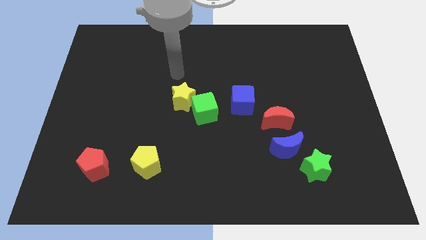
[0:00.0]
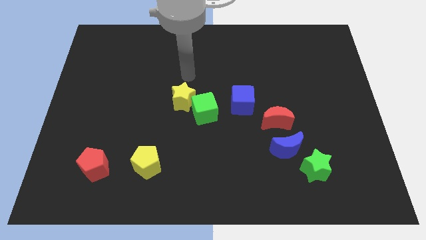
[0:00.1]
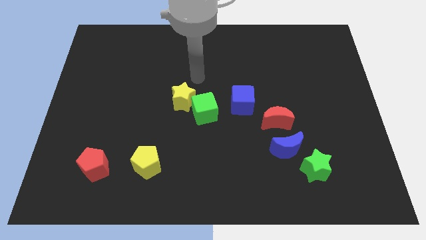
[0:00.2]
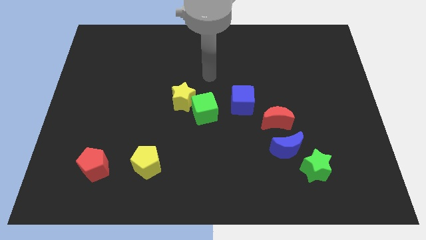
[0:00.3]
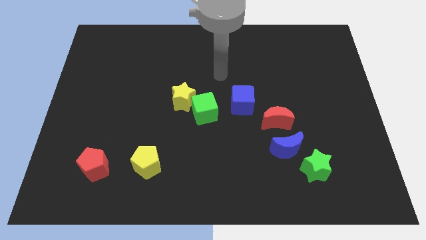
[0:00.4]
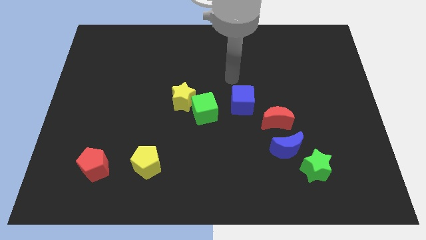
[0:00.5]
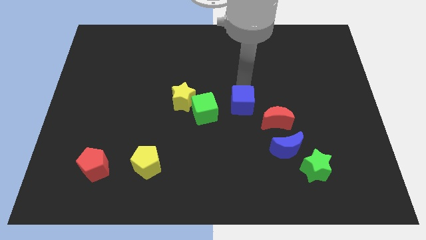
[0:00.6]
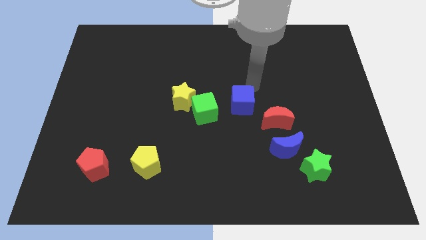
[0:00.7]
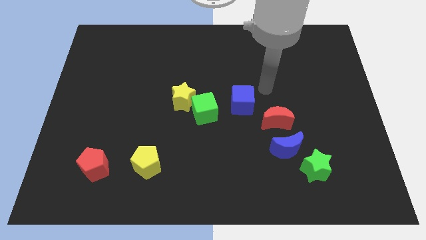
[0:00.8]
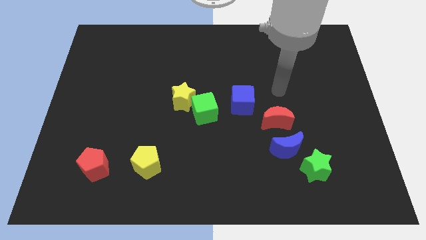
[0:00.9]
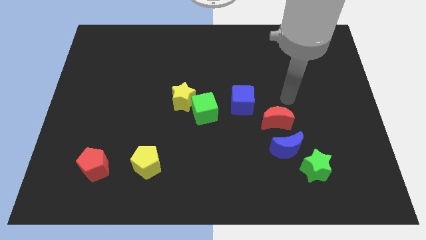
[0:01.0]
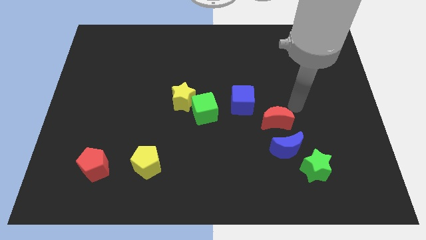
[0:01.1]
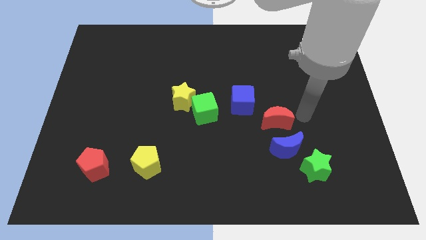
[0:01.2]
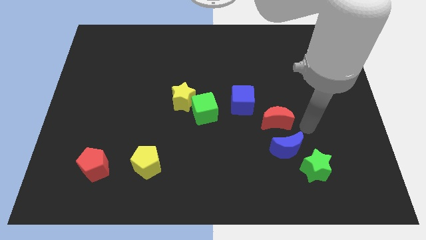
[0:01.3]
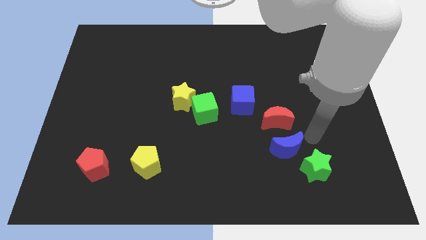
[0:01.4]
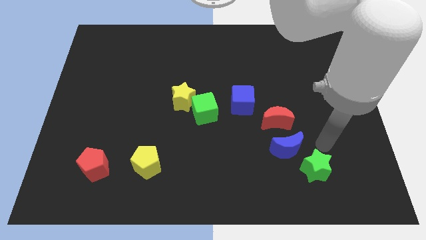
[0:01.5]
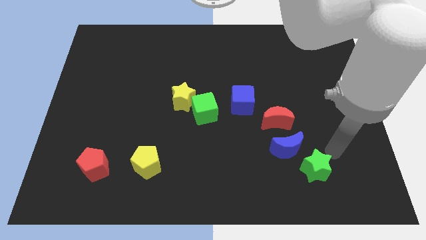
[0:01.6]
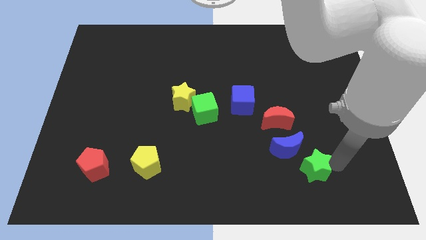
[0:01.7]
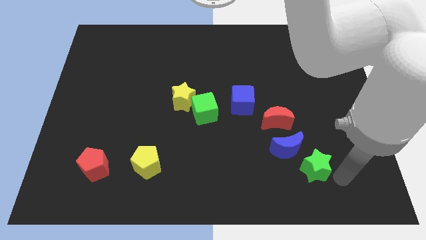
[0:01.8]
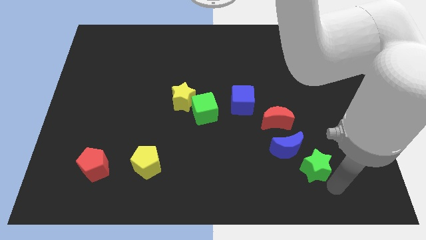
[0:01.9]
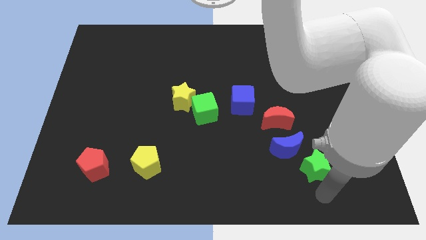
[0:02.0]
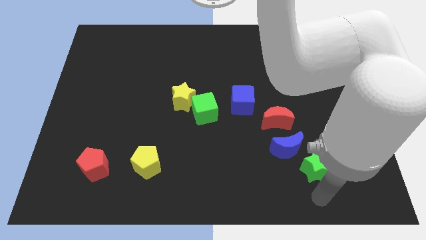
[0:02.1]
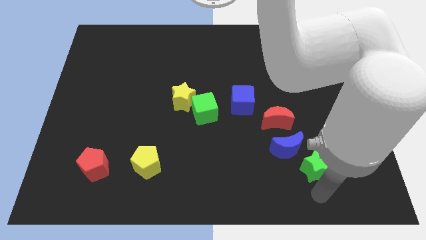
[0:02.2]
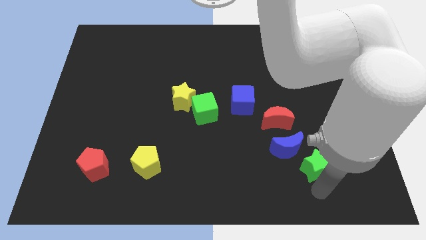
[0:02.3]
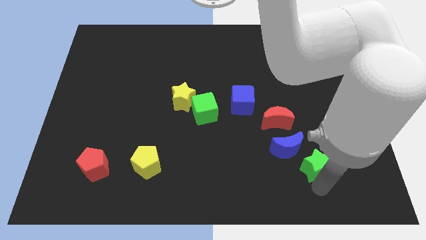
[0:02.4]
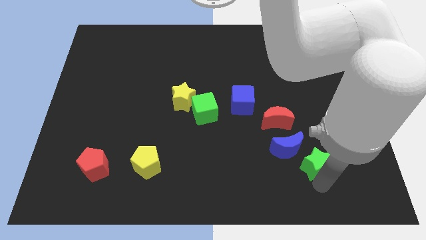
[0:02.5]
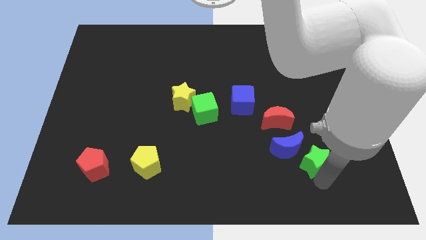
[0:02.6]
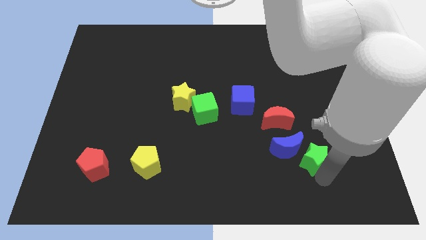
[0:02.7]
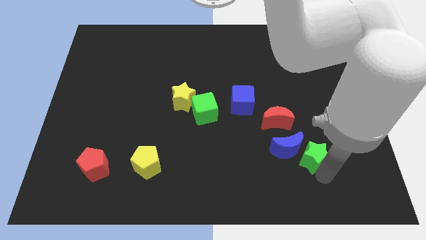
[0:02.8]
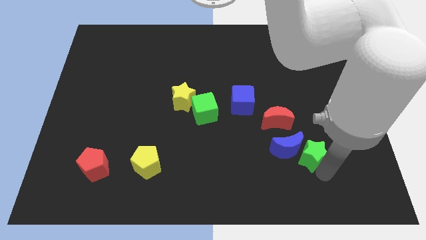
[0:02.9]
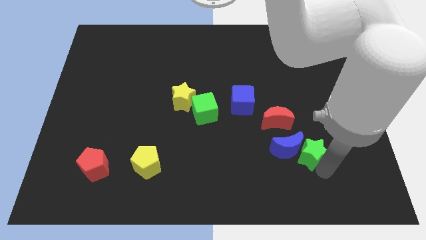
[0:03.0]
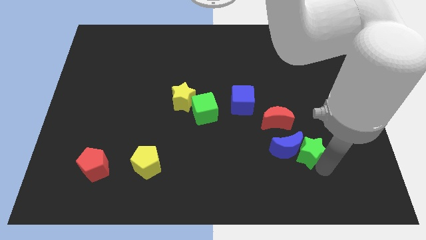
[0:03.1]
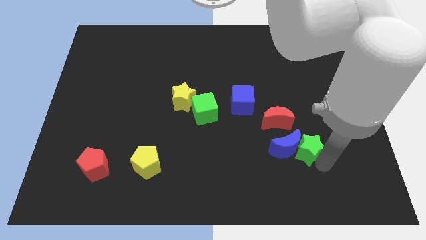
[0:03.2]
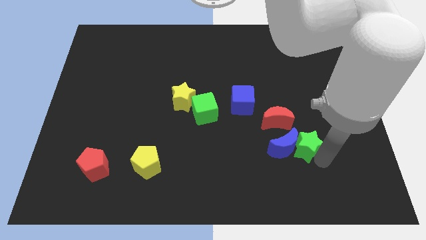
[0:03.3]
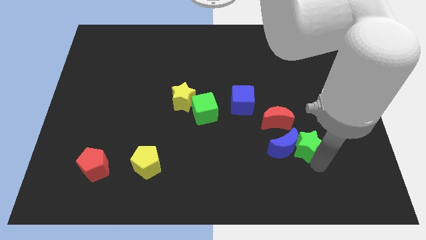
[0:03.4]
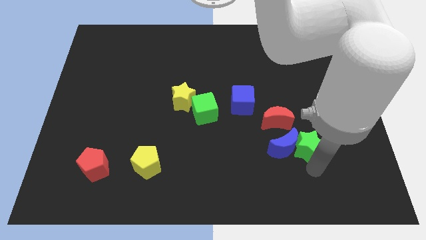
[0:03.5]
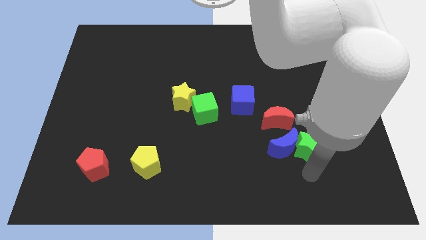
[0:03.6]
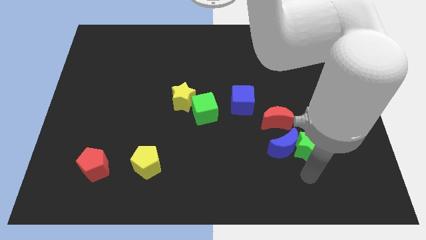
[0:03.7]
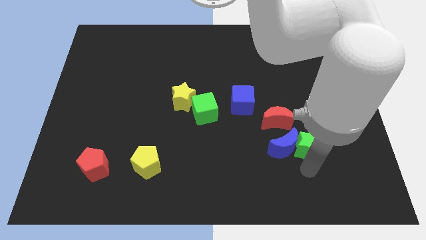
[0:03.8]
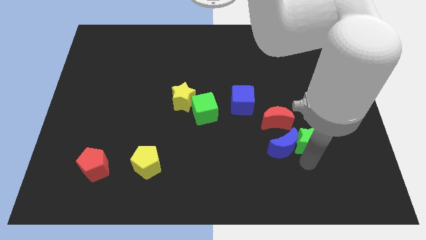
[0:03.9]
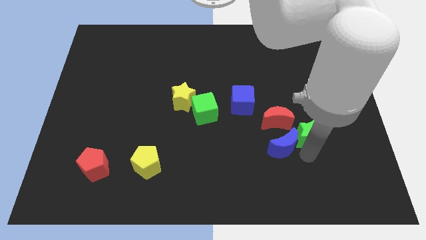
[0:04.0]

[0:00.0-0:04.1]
slide the green star slightly upwards

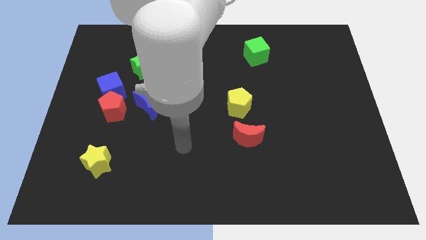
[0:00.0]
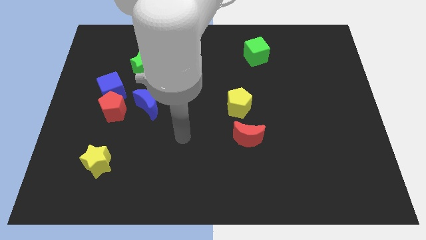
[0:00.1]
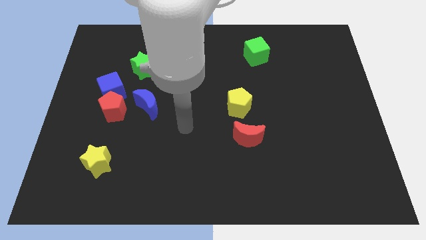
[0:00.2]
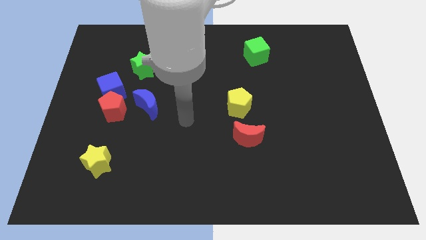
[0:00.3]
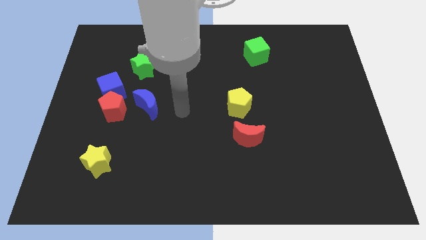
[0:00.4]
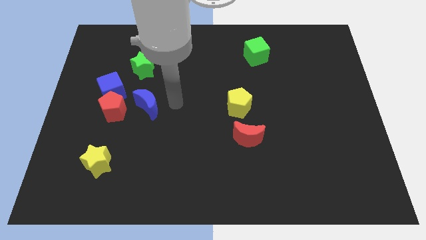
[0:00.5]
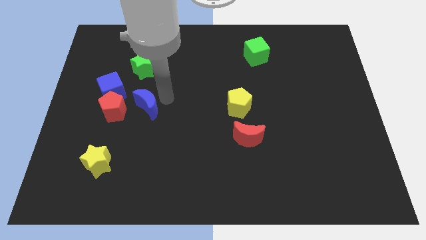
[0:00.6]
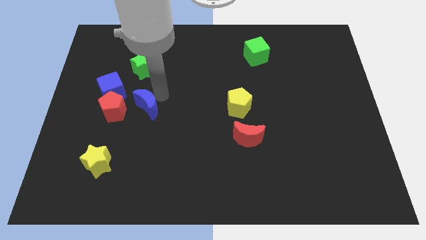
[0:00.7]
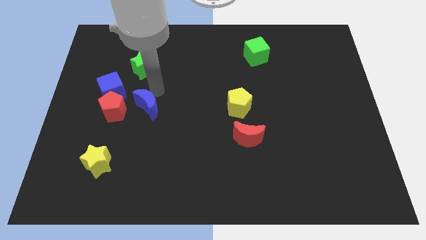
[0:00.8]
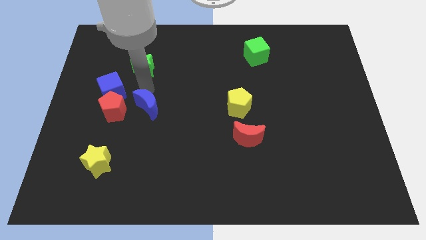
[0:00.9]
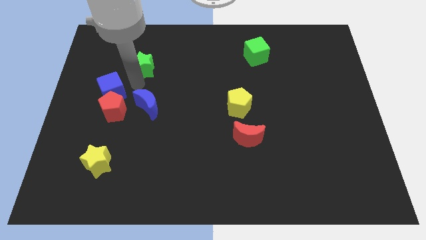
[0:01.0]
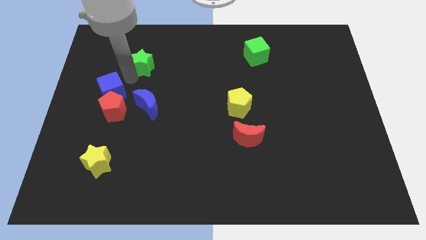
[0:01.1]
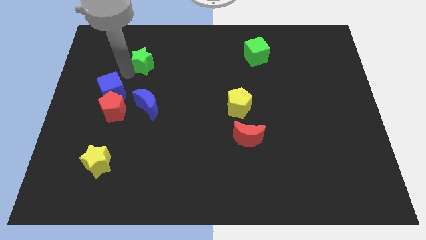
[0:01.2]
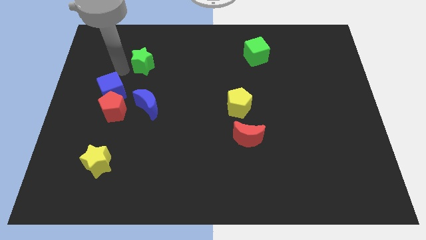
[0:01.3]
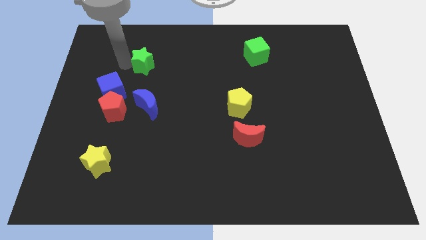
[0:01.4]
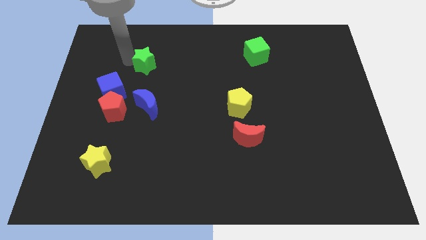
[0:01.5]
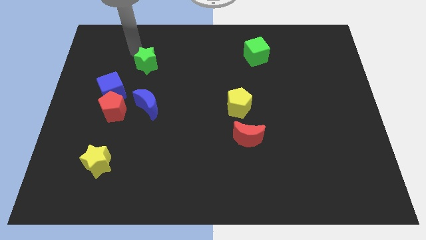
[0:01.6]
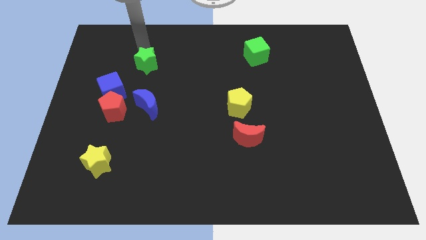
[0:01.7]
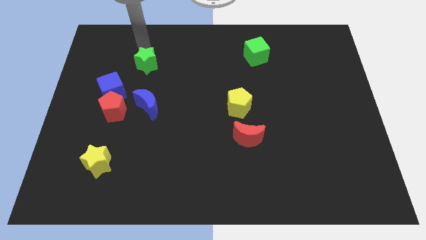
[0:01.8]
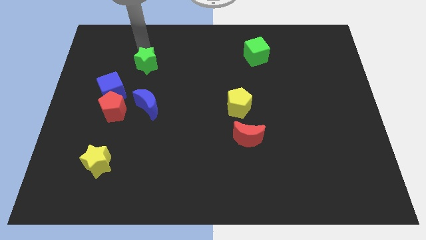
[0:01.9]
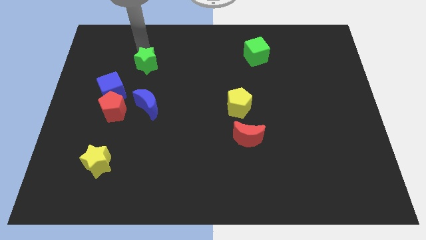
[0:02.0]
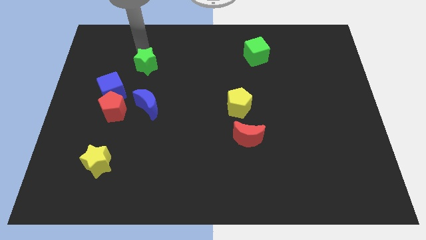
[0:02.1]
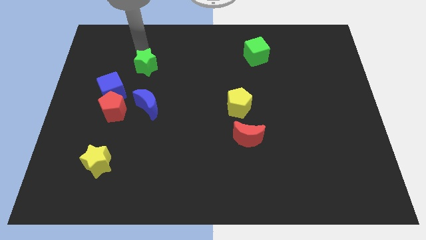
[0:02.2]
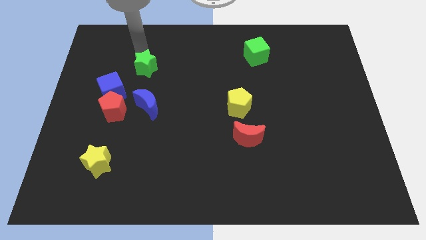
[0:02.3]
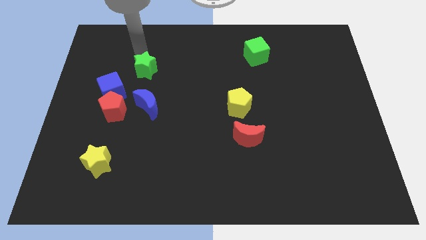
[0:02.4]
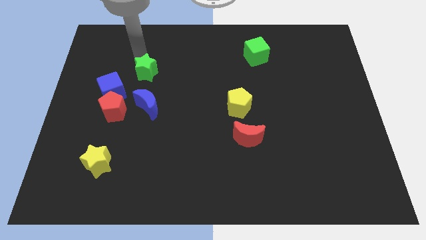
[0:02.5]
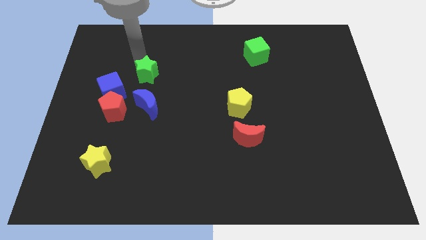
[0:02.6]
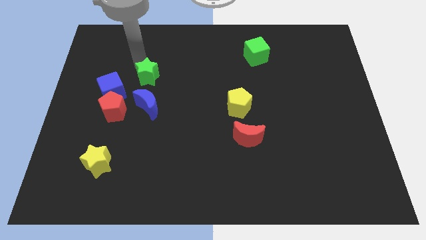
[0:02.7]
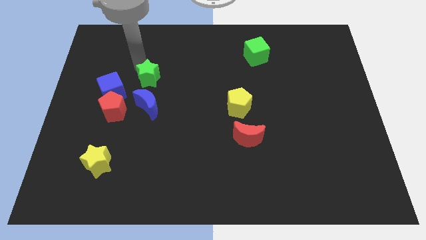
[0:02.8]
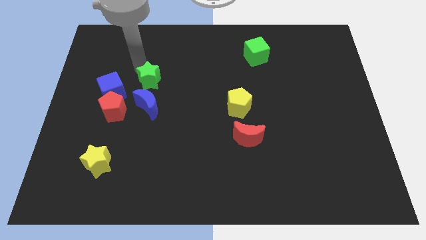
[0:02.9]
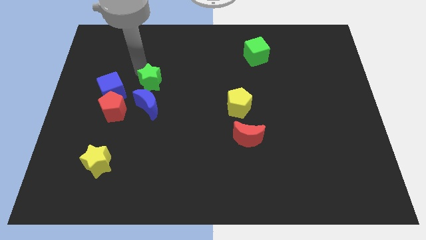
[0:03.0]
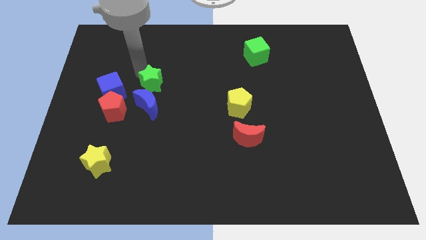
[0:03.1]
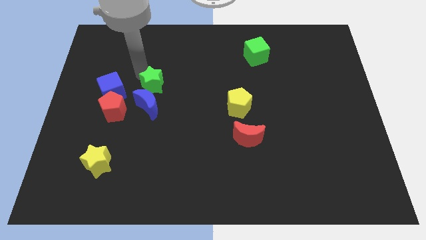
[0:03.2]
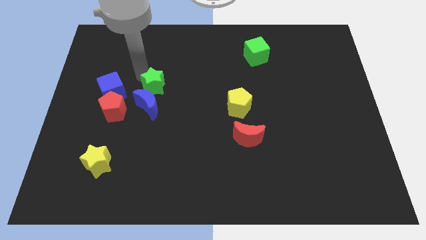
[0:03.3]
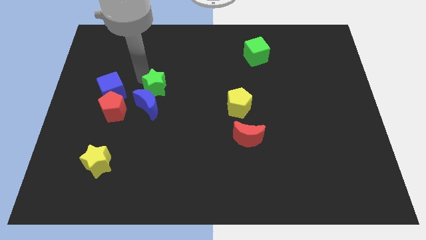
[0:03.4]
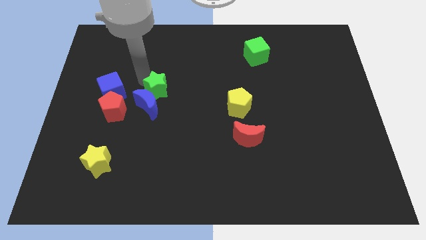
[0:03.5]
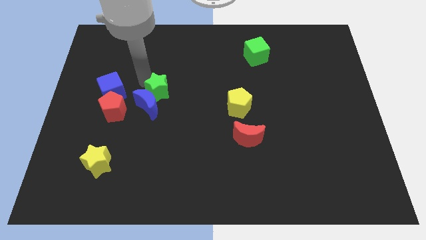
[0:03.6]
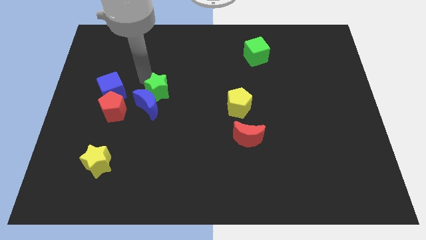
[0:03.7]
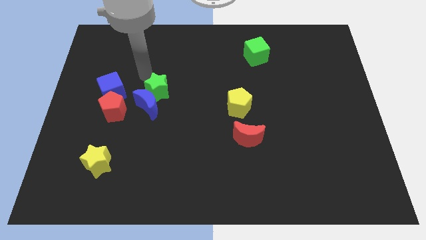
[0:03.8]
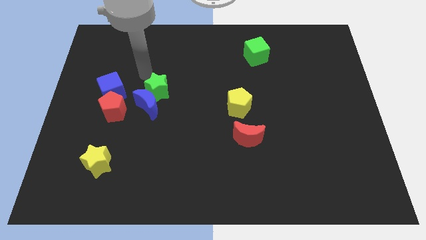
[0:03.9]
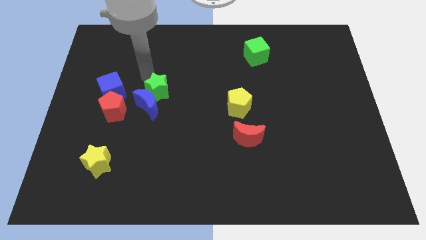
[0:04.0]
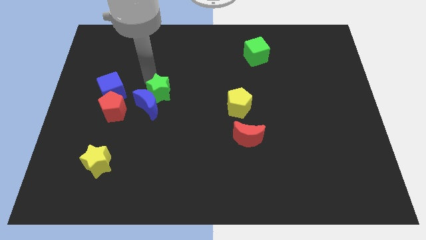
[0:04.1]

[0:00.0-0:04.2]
move the green star downwards somewhat
